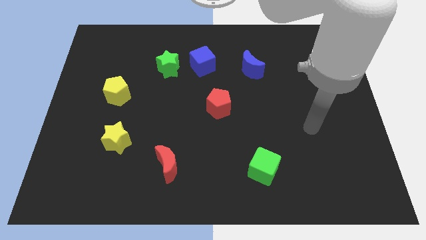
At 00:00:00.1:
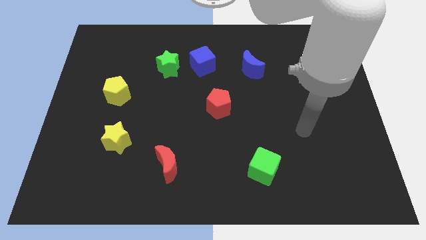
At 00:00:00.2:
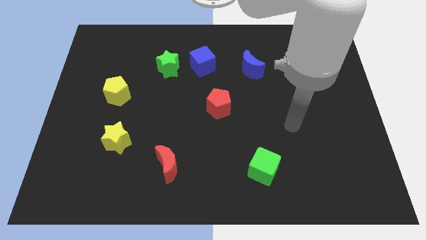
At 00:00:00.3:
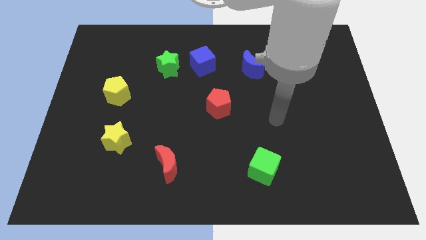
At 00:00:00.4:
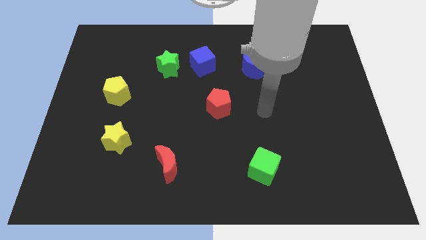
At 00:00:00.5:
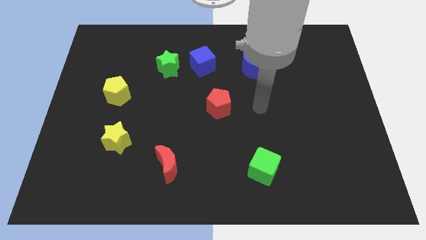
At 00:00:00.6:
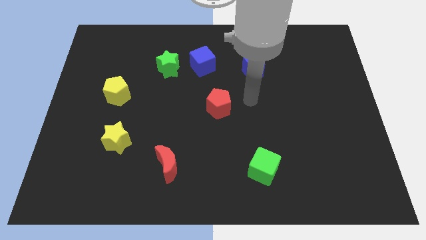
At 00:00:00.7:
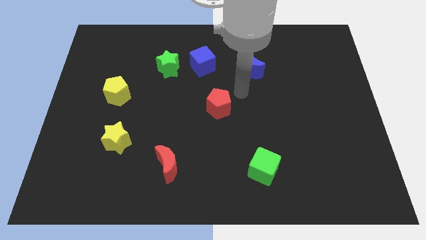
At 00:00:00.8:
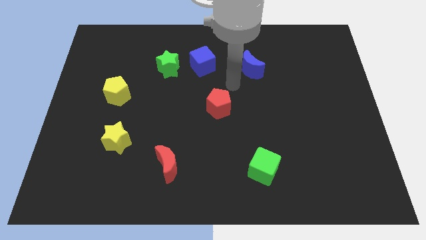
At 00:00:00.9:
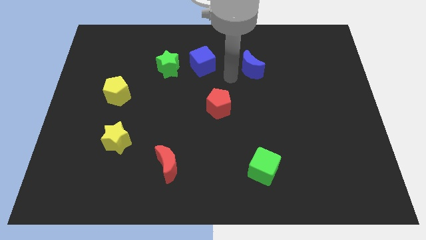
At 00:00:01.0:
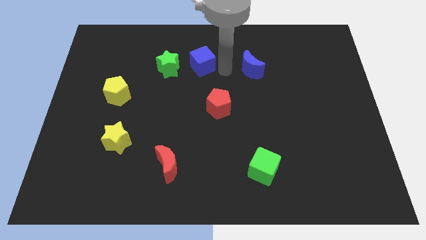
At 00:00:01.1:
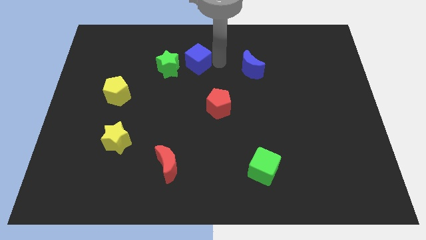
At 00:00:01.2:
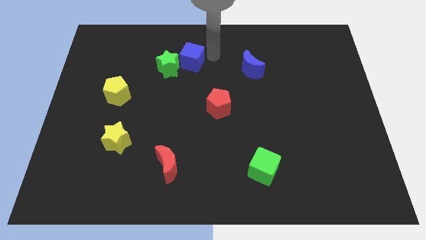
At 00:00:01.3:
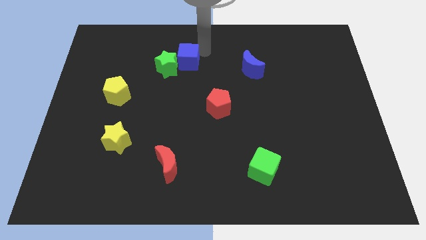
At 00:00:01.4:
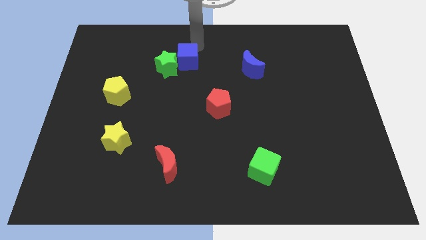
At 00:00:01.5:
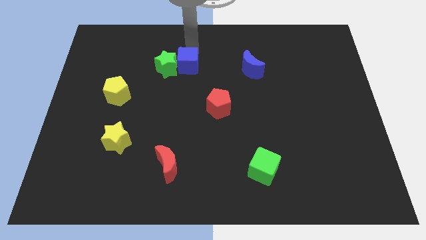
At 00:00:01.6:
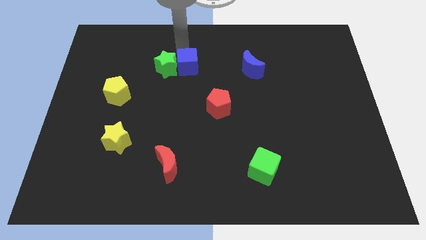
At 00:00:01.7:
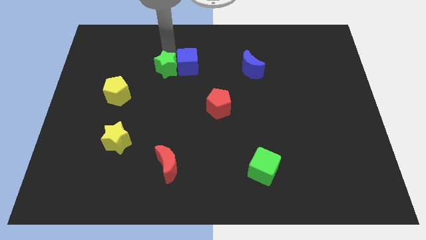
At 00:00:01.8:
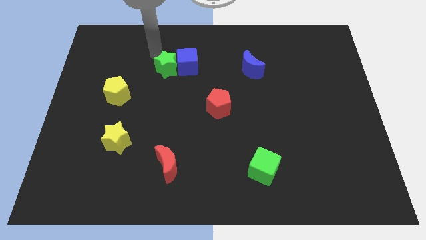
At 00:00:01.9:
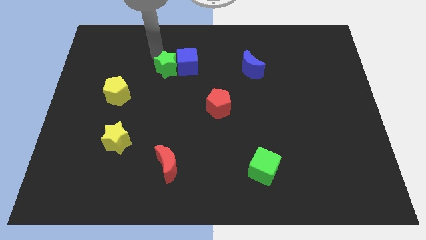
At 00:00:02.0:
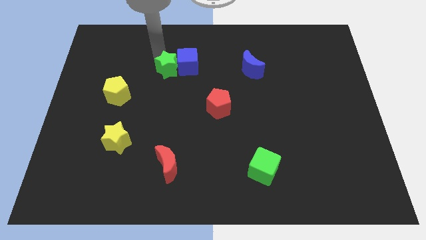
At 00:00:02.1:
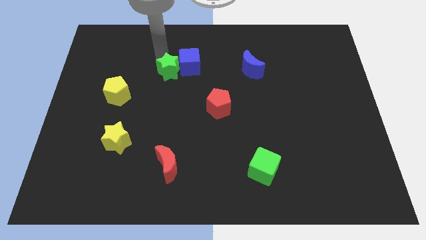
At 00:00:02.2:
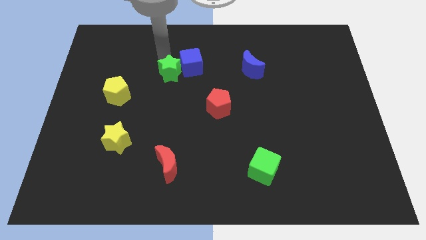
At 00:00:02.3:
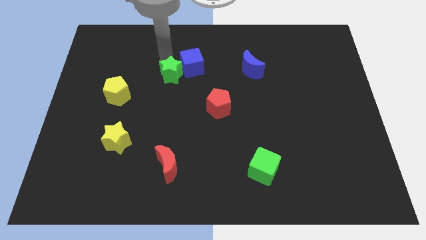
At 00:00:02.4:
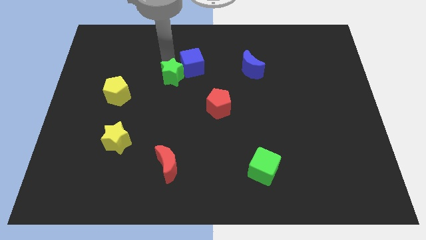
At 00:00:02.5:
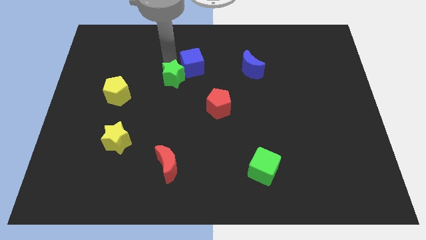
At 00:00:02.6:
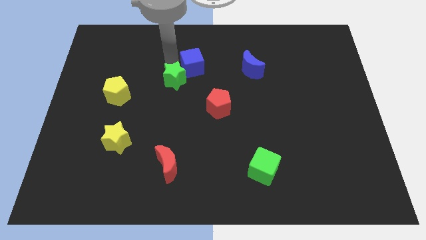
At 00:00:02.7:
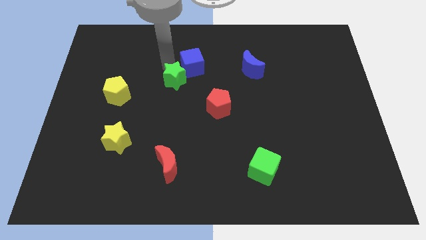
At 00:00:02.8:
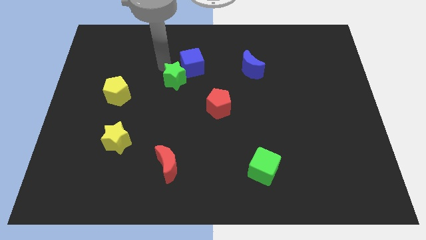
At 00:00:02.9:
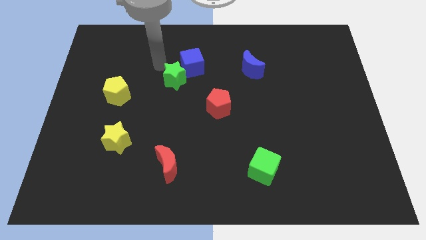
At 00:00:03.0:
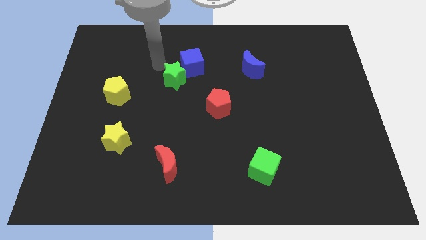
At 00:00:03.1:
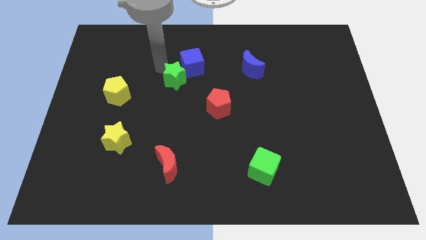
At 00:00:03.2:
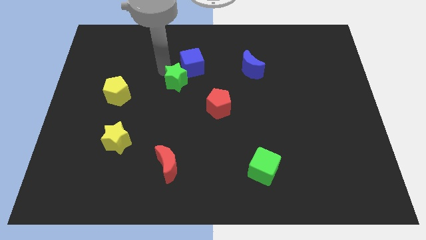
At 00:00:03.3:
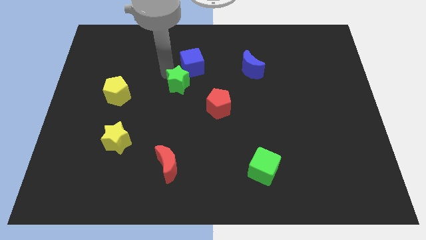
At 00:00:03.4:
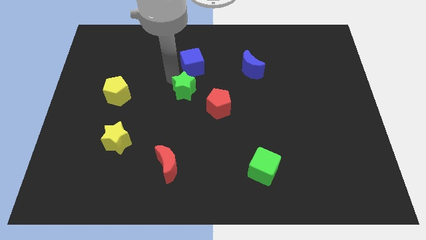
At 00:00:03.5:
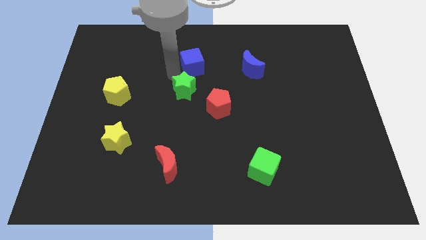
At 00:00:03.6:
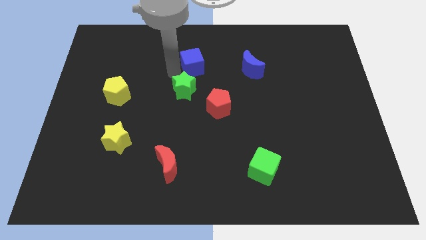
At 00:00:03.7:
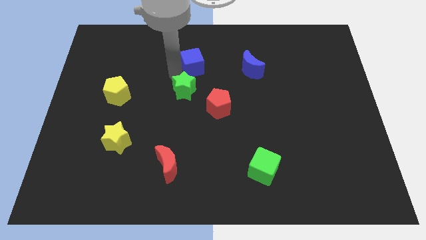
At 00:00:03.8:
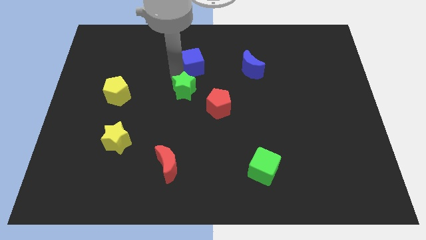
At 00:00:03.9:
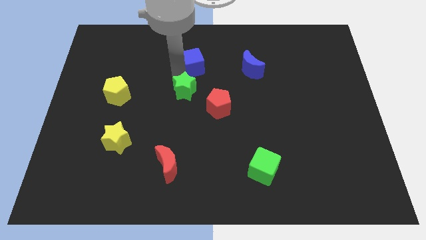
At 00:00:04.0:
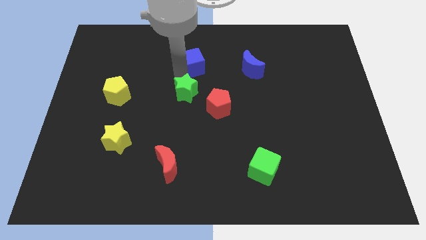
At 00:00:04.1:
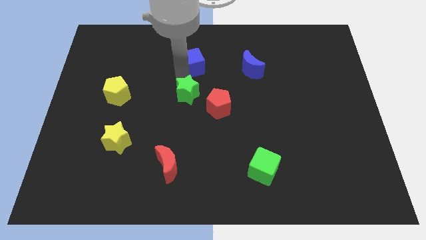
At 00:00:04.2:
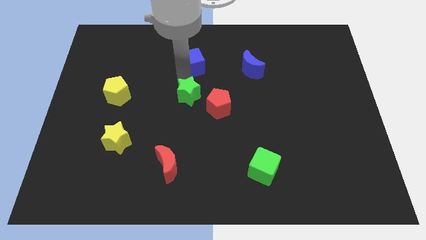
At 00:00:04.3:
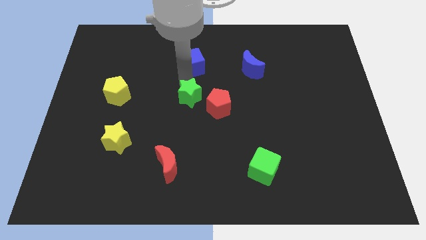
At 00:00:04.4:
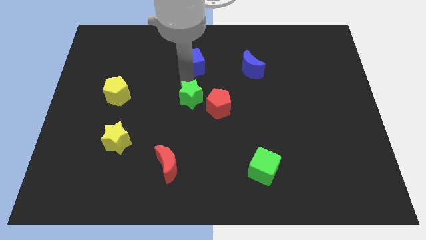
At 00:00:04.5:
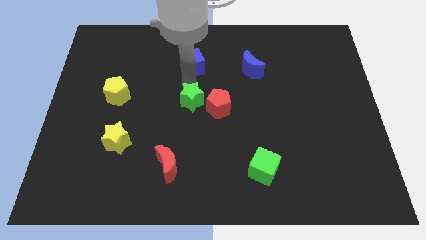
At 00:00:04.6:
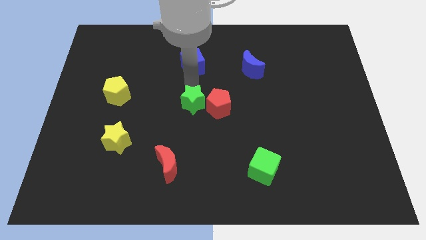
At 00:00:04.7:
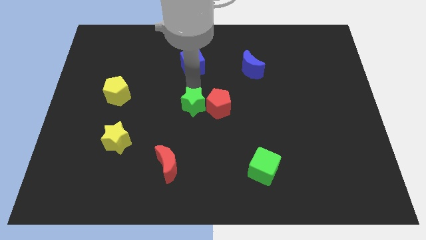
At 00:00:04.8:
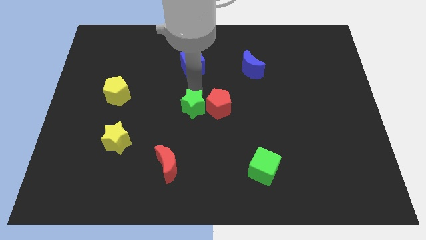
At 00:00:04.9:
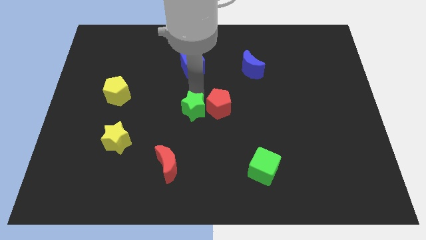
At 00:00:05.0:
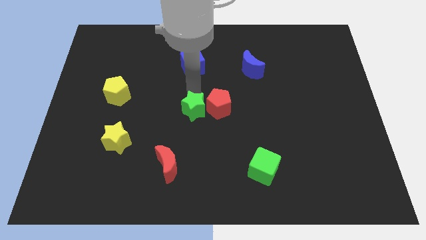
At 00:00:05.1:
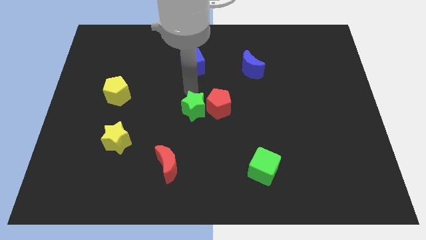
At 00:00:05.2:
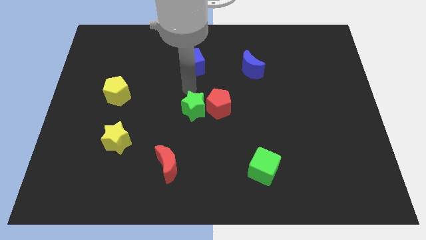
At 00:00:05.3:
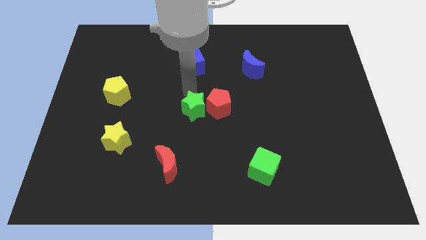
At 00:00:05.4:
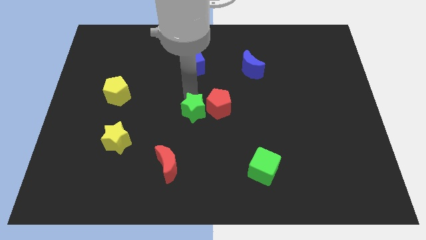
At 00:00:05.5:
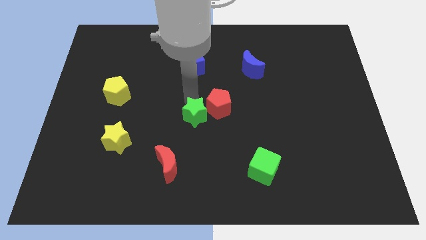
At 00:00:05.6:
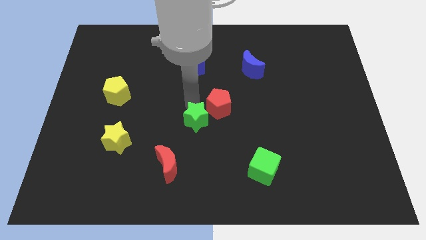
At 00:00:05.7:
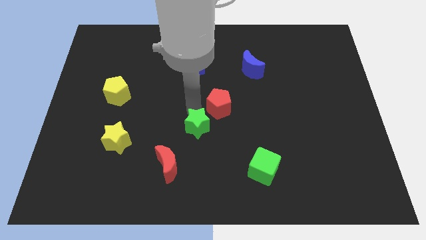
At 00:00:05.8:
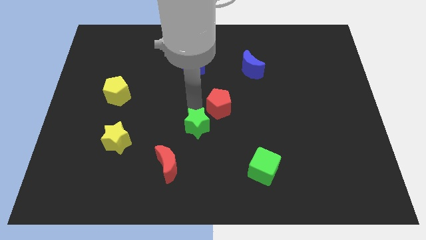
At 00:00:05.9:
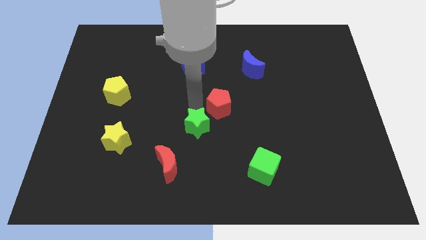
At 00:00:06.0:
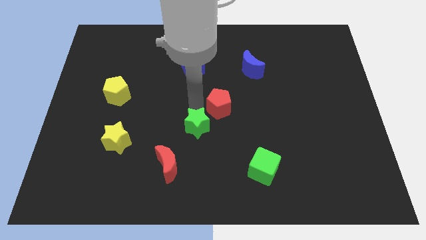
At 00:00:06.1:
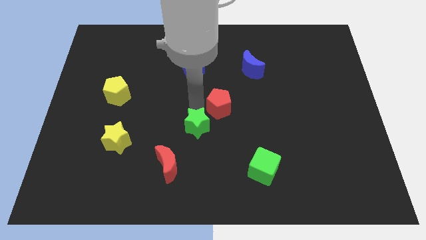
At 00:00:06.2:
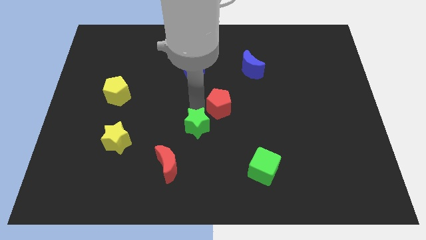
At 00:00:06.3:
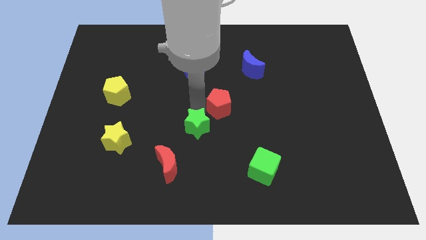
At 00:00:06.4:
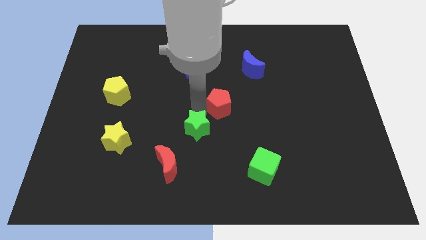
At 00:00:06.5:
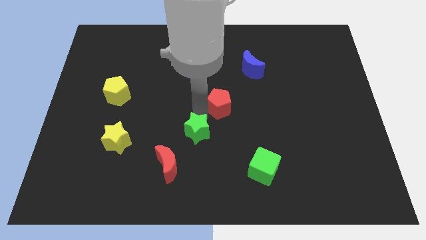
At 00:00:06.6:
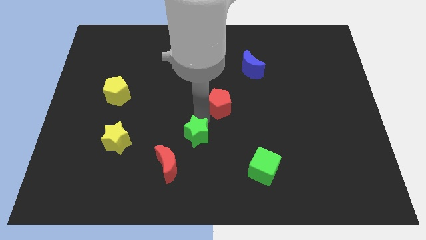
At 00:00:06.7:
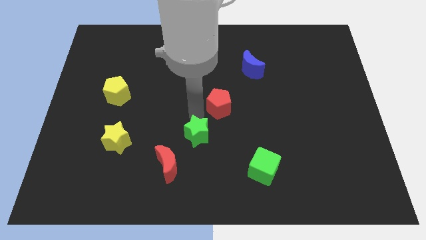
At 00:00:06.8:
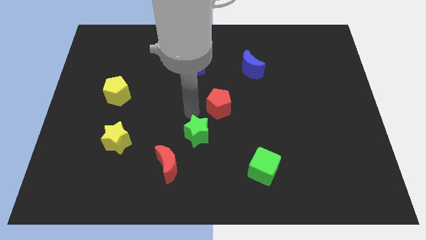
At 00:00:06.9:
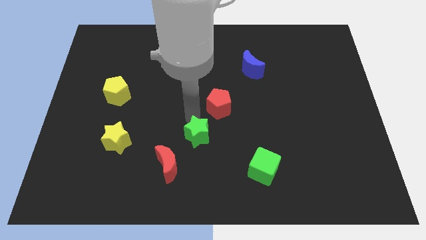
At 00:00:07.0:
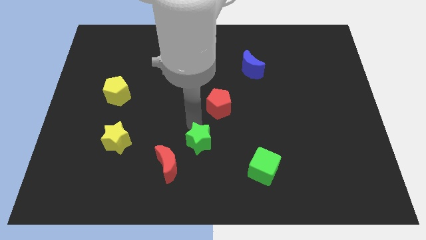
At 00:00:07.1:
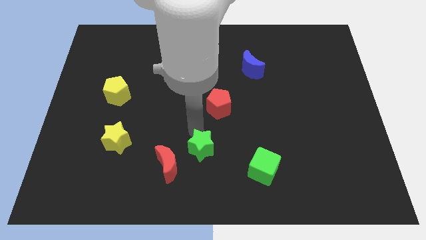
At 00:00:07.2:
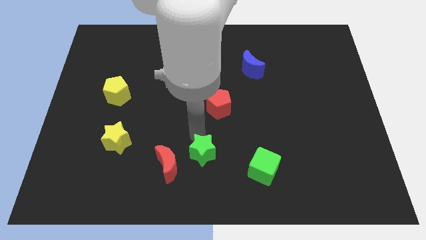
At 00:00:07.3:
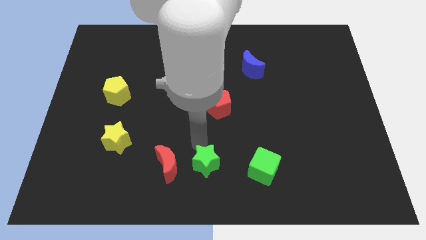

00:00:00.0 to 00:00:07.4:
push the green star to the bottom

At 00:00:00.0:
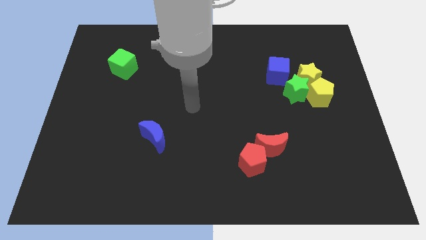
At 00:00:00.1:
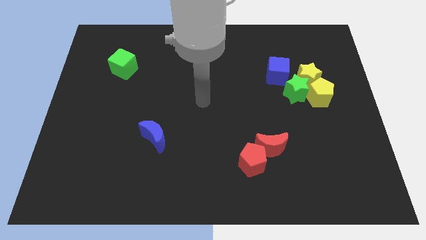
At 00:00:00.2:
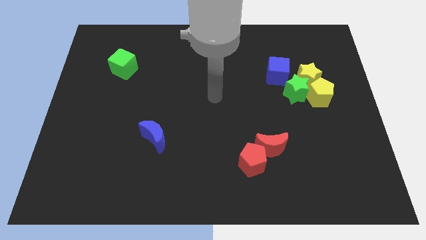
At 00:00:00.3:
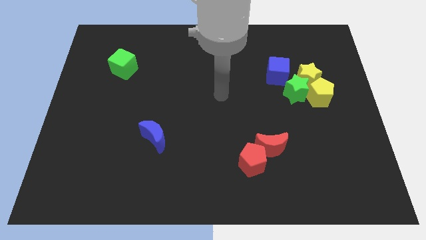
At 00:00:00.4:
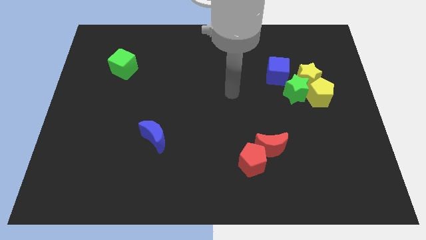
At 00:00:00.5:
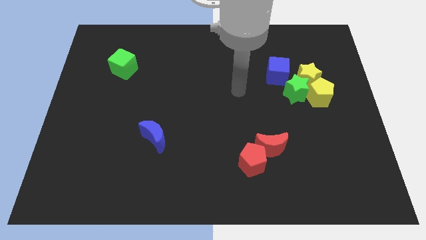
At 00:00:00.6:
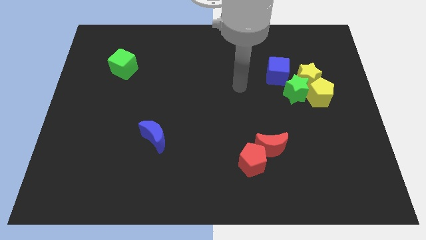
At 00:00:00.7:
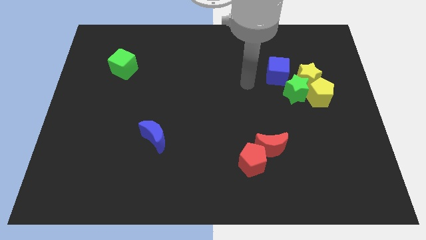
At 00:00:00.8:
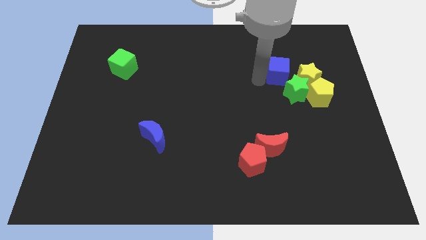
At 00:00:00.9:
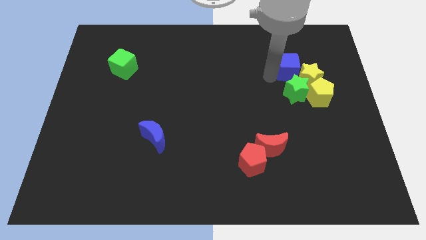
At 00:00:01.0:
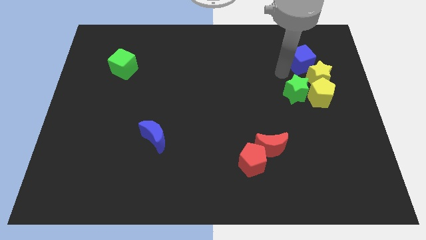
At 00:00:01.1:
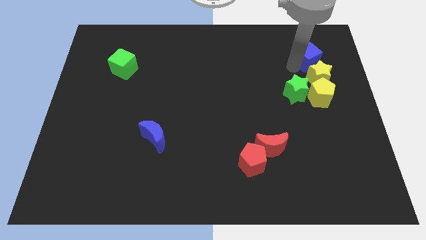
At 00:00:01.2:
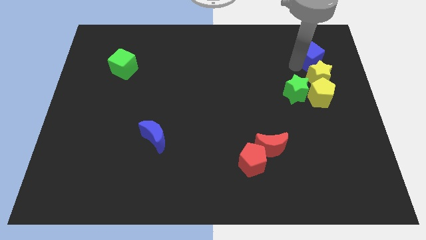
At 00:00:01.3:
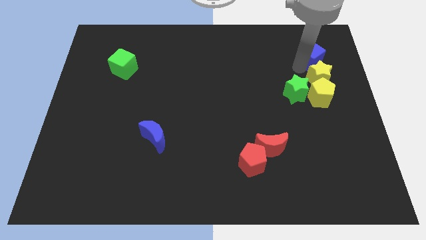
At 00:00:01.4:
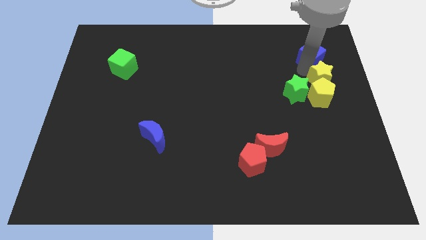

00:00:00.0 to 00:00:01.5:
move the yellow star to the right side of the board
